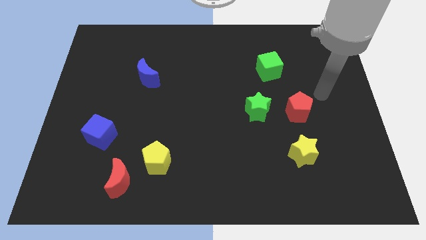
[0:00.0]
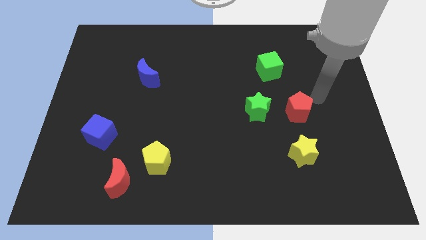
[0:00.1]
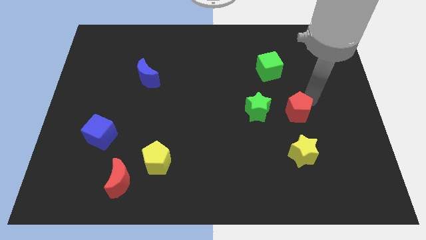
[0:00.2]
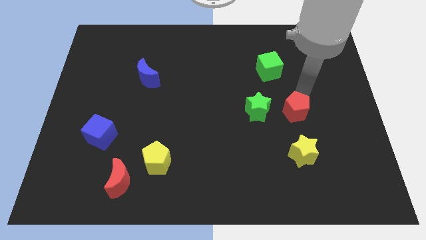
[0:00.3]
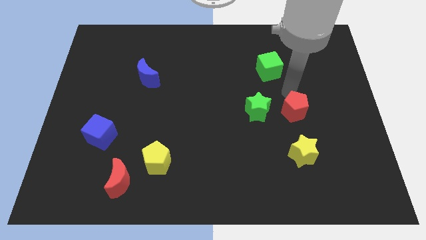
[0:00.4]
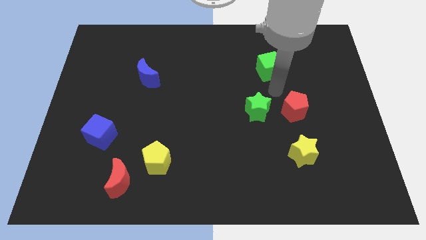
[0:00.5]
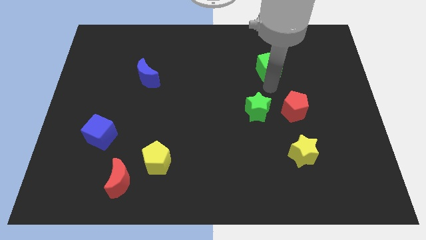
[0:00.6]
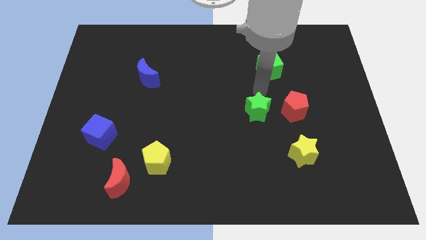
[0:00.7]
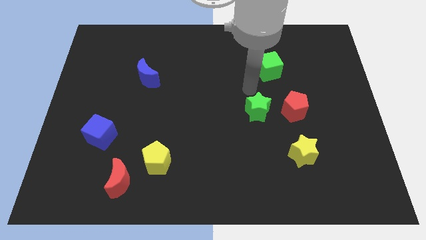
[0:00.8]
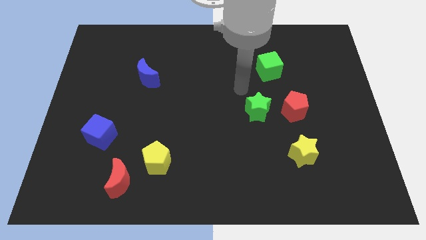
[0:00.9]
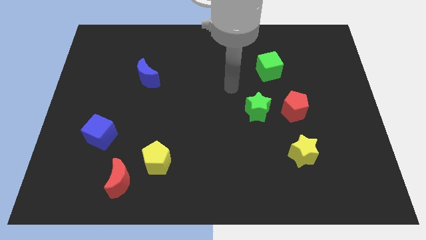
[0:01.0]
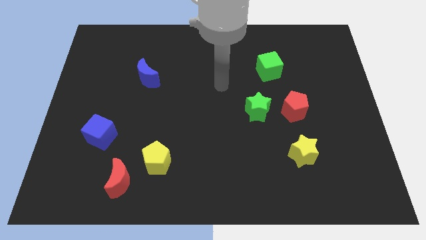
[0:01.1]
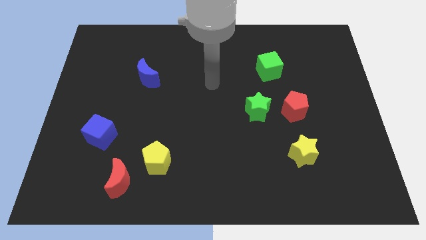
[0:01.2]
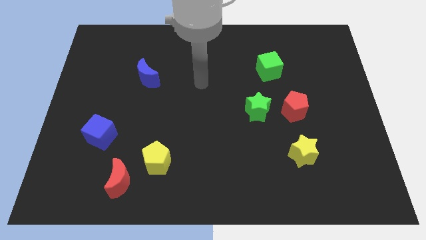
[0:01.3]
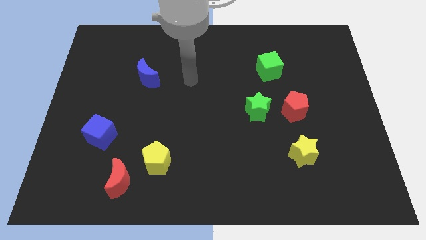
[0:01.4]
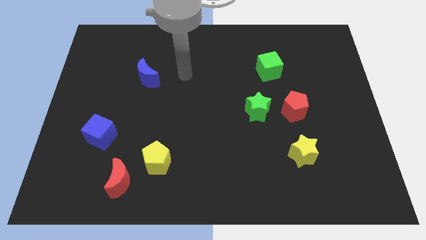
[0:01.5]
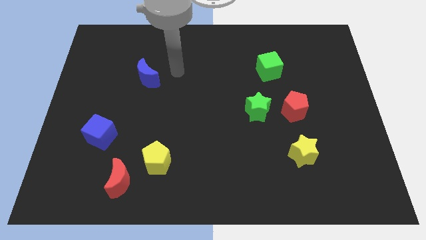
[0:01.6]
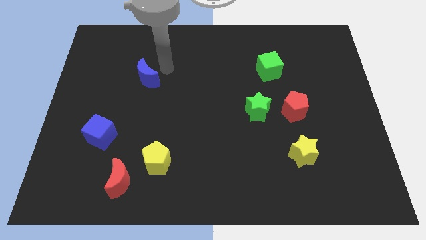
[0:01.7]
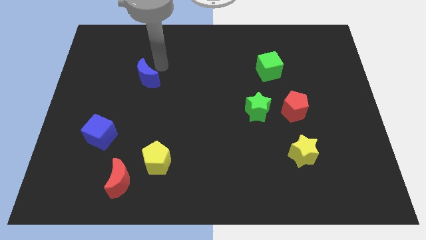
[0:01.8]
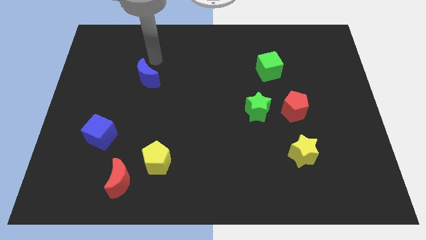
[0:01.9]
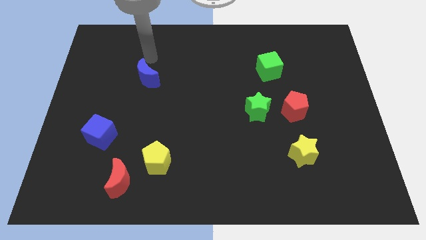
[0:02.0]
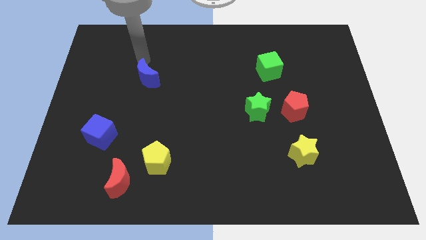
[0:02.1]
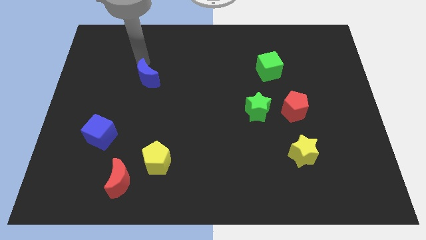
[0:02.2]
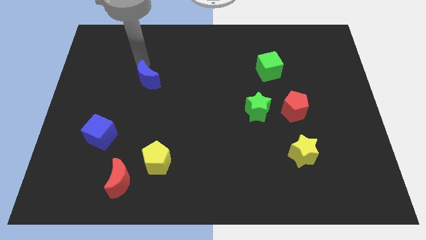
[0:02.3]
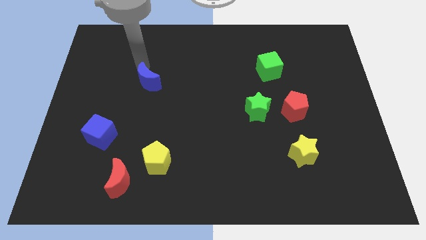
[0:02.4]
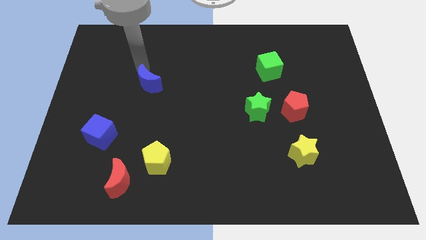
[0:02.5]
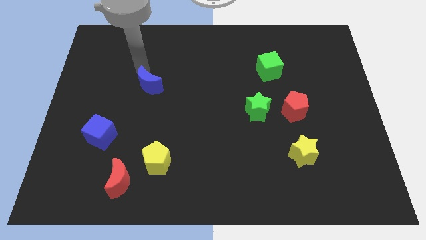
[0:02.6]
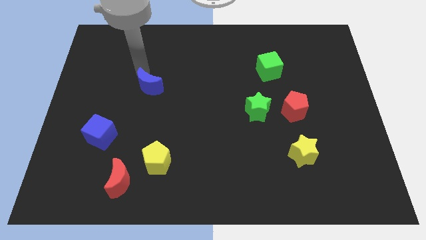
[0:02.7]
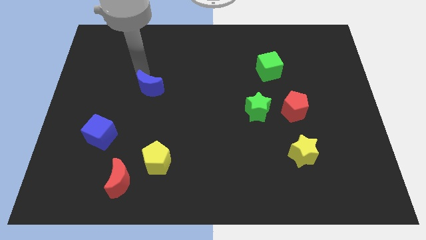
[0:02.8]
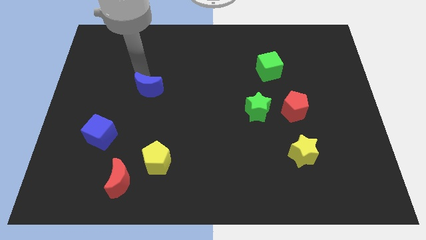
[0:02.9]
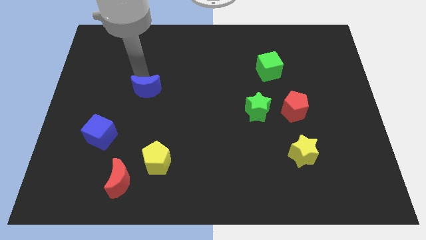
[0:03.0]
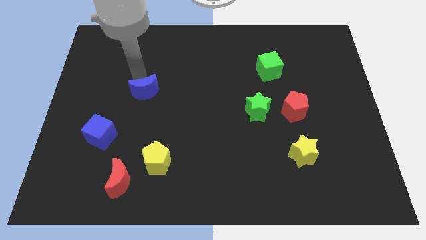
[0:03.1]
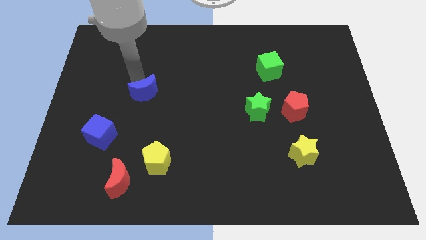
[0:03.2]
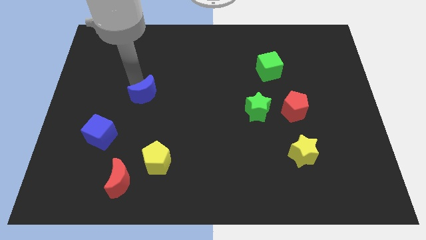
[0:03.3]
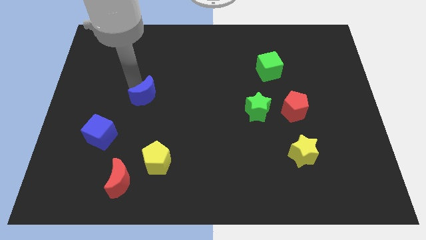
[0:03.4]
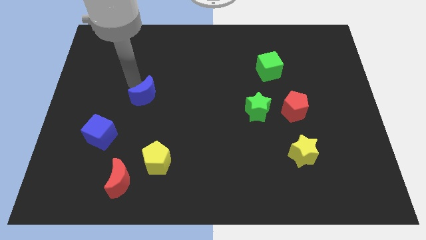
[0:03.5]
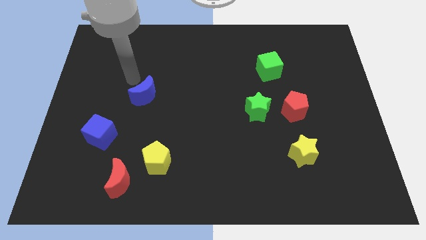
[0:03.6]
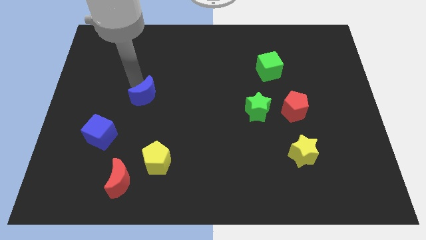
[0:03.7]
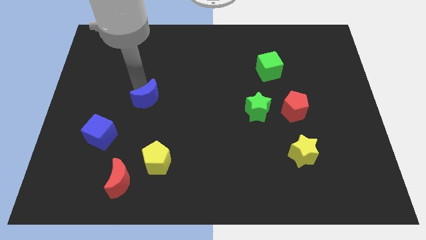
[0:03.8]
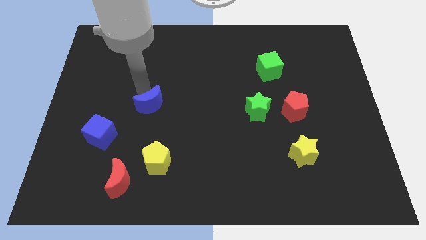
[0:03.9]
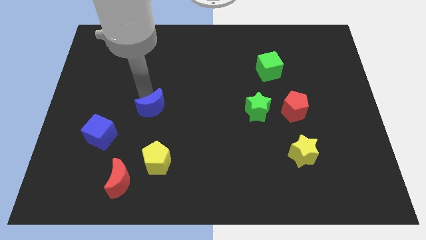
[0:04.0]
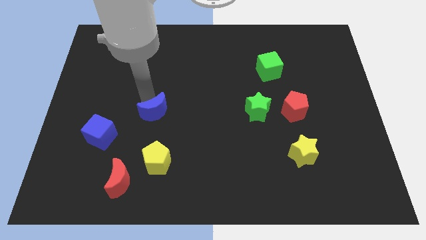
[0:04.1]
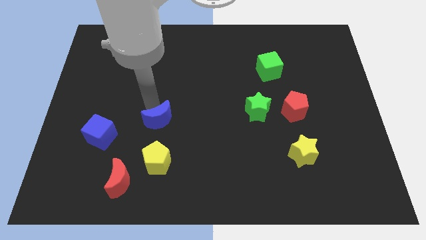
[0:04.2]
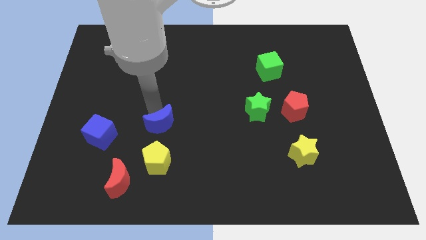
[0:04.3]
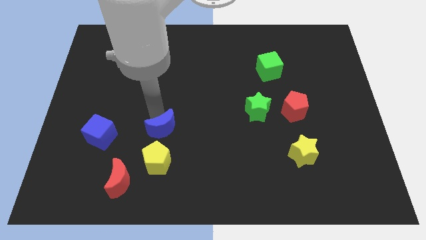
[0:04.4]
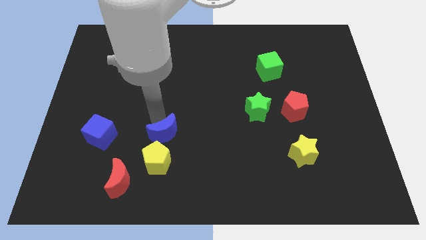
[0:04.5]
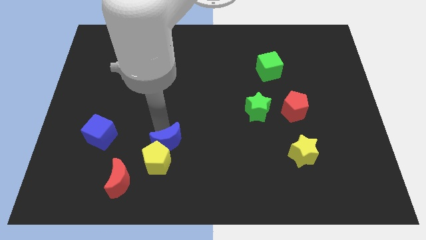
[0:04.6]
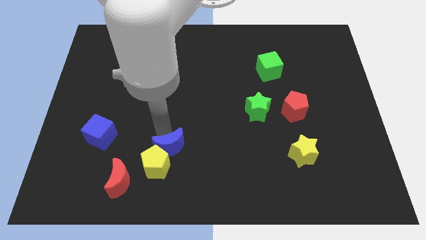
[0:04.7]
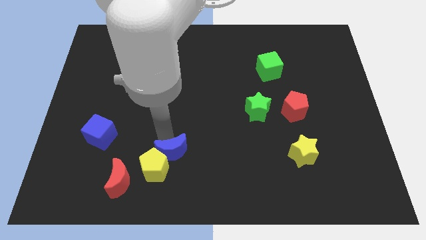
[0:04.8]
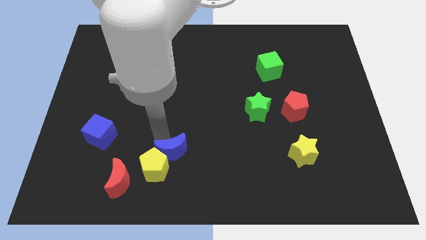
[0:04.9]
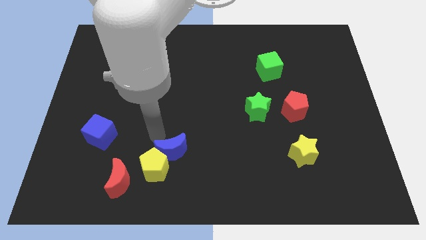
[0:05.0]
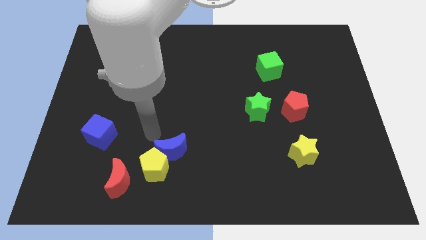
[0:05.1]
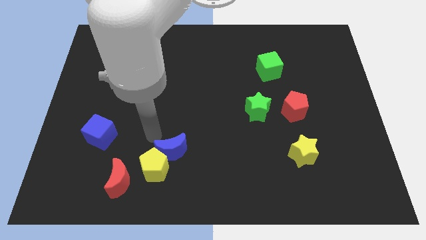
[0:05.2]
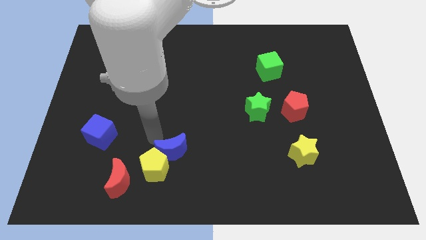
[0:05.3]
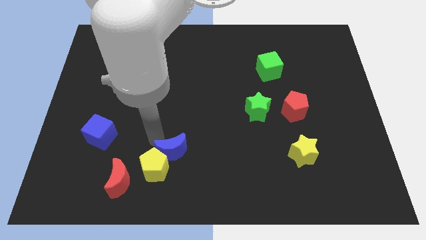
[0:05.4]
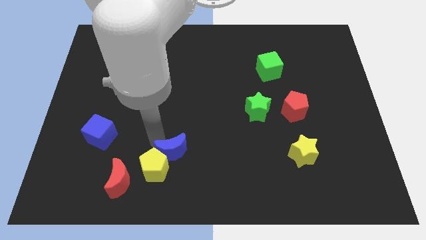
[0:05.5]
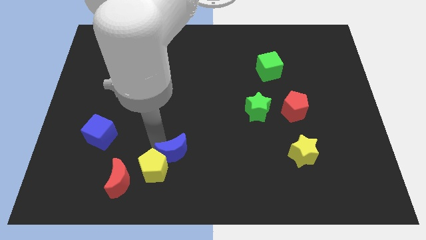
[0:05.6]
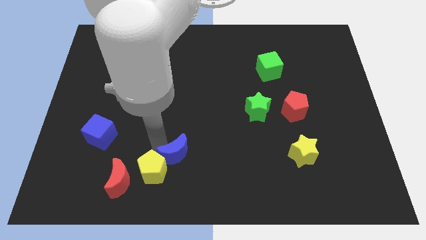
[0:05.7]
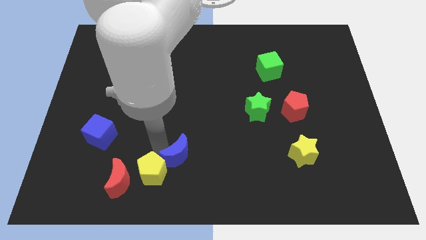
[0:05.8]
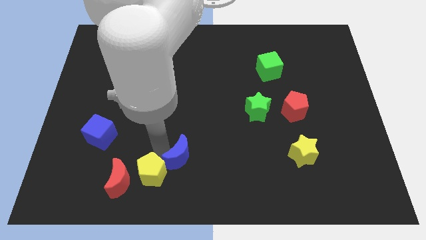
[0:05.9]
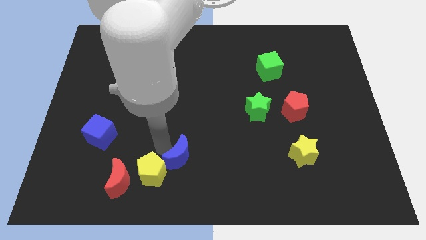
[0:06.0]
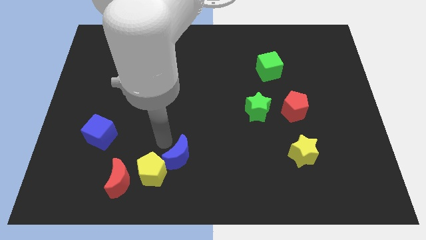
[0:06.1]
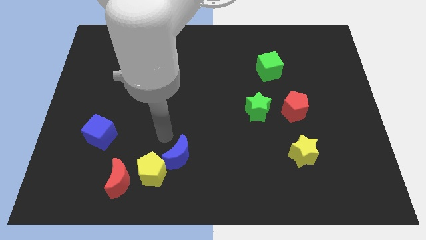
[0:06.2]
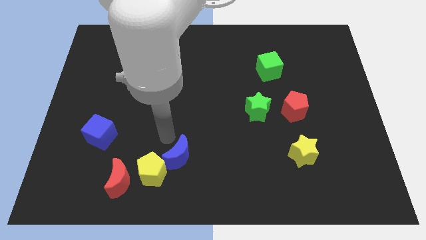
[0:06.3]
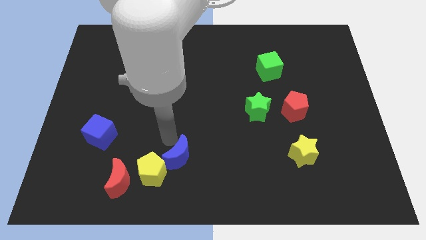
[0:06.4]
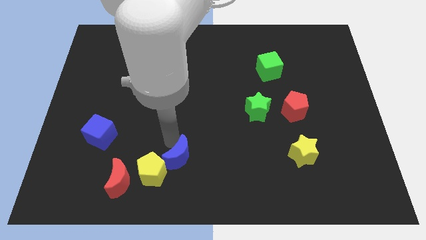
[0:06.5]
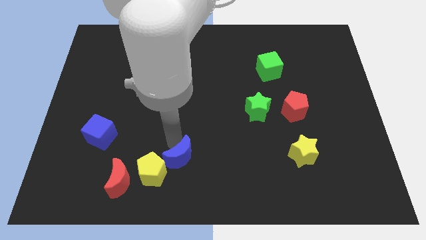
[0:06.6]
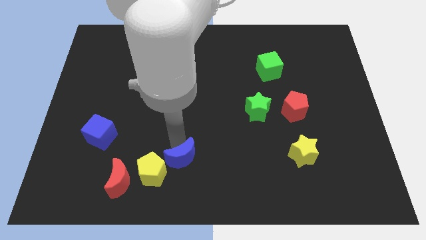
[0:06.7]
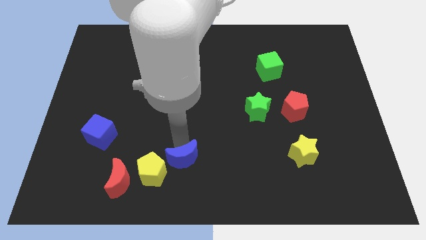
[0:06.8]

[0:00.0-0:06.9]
slide the blue moon to the bottom side
